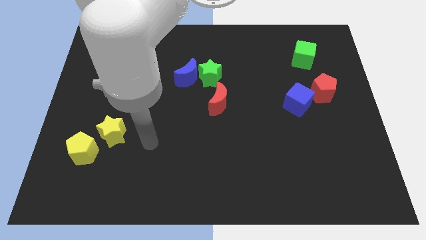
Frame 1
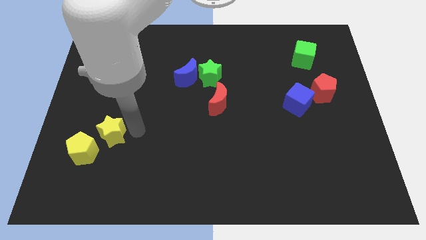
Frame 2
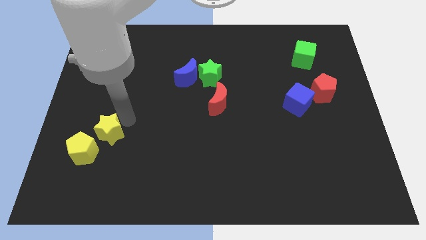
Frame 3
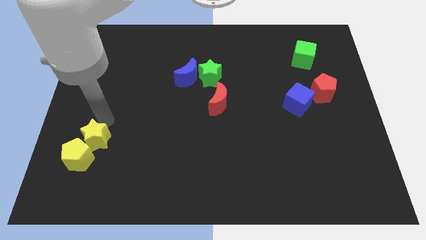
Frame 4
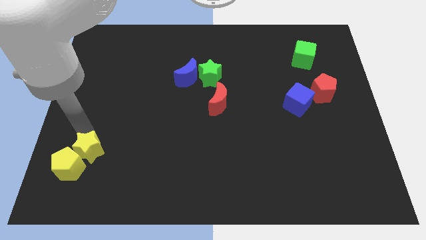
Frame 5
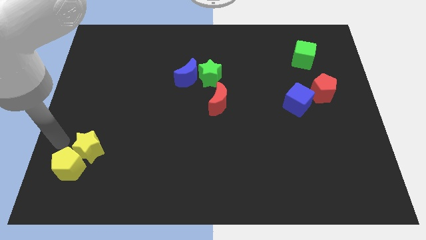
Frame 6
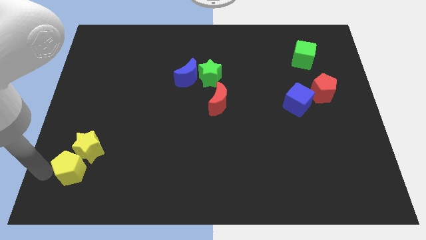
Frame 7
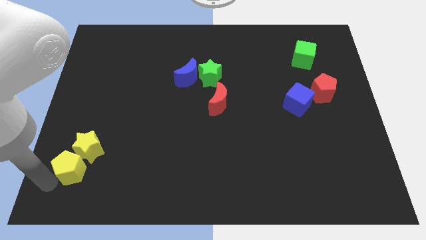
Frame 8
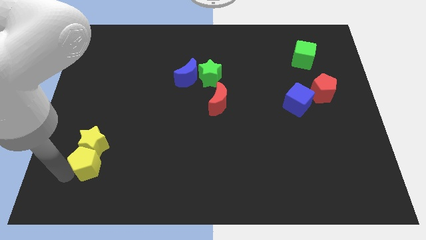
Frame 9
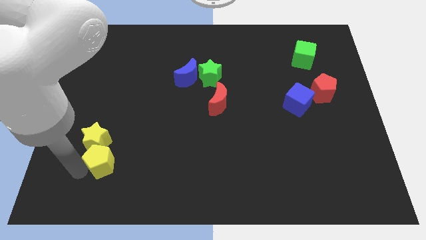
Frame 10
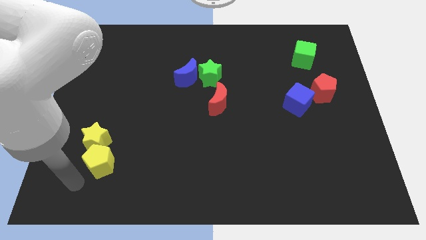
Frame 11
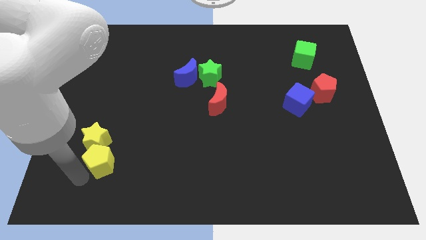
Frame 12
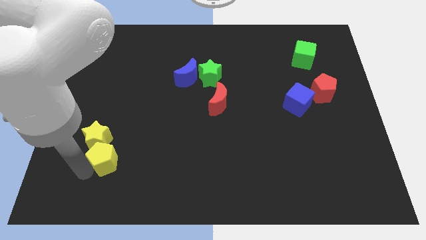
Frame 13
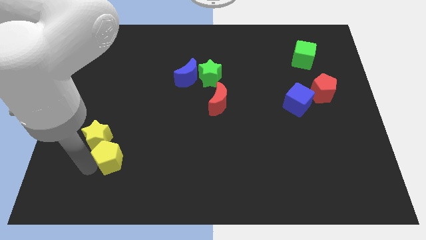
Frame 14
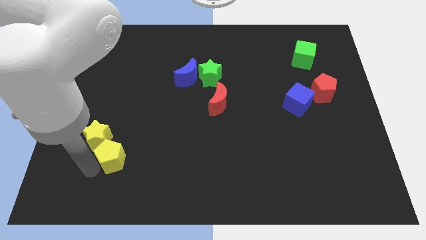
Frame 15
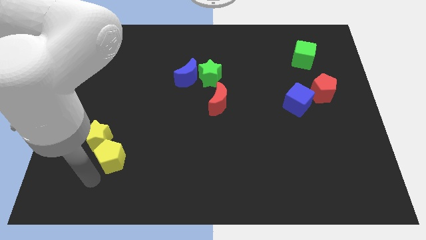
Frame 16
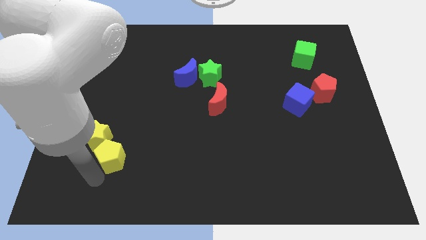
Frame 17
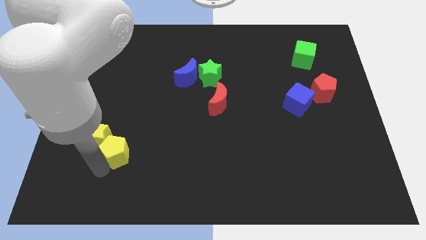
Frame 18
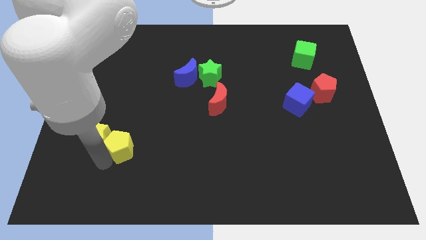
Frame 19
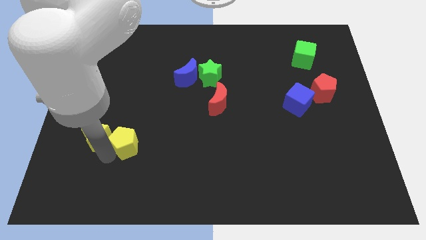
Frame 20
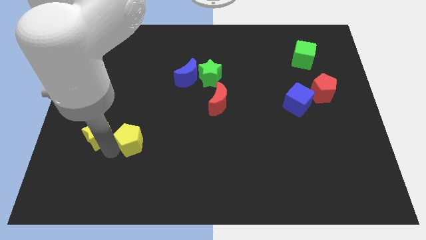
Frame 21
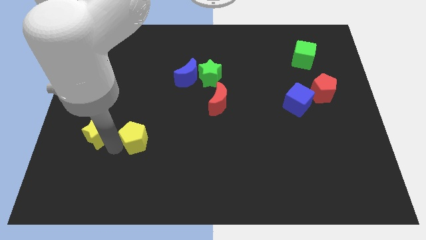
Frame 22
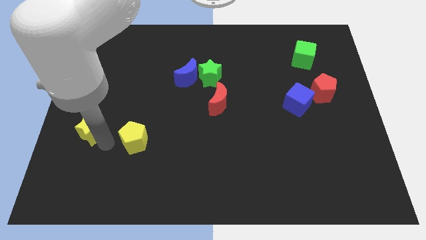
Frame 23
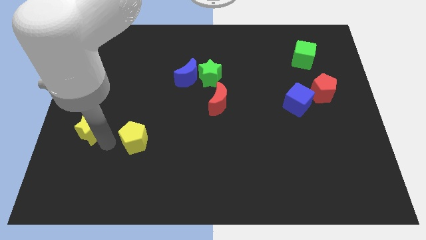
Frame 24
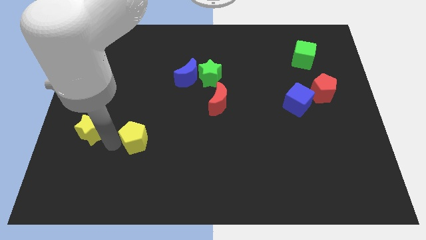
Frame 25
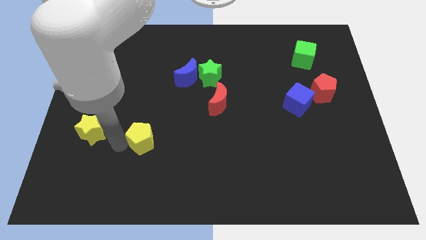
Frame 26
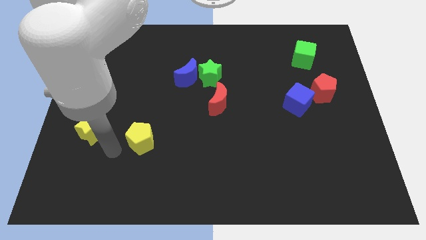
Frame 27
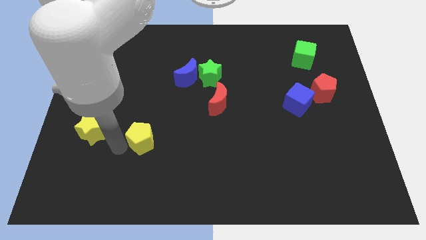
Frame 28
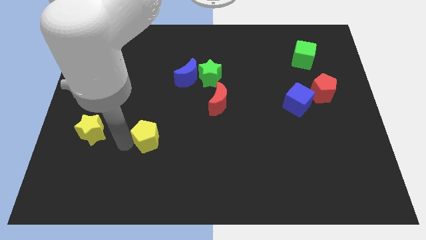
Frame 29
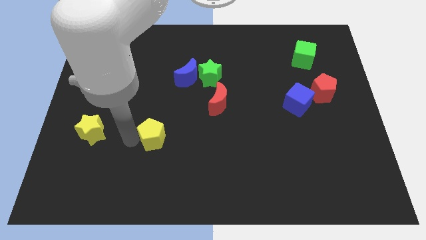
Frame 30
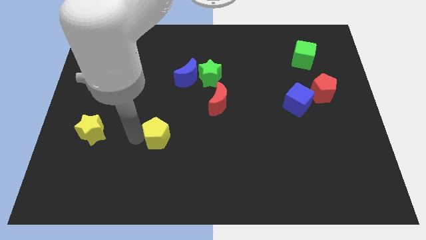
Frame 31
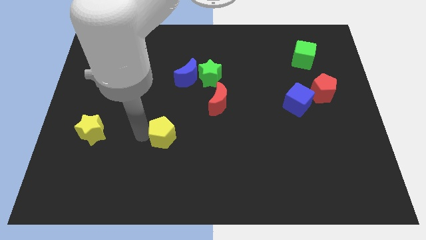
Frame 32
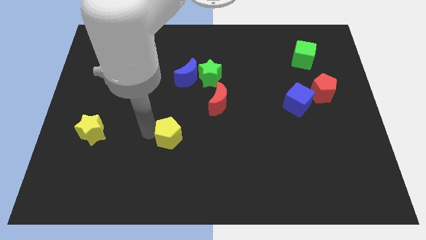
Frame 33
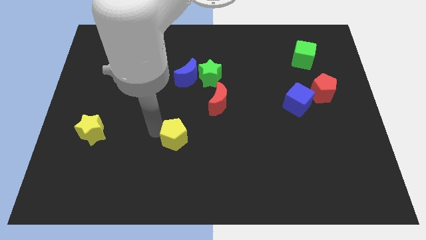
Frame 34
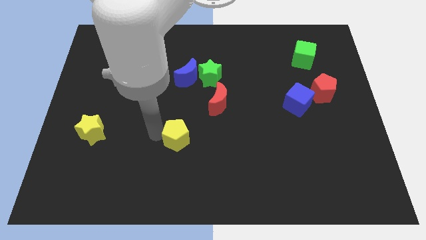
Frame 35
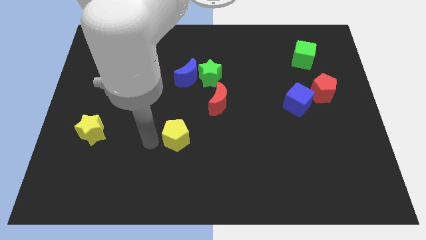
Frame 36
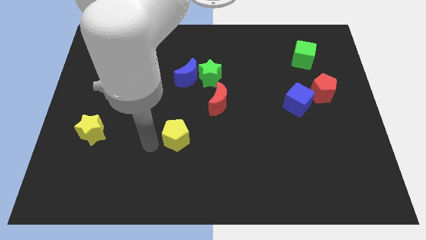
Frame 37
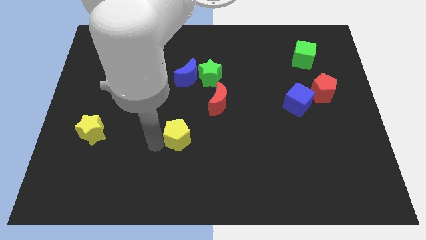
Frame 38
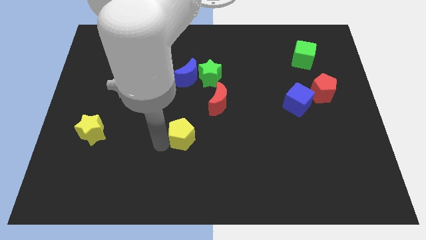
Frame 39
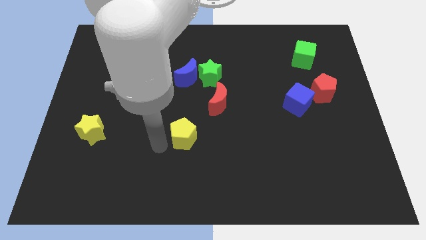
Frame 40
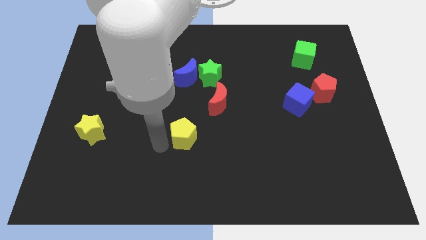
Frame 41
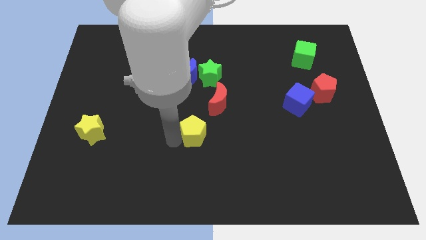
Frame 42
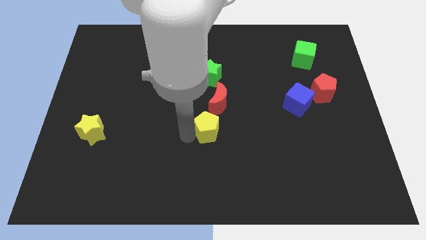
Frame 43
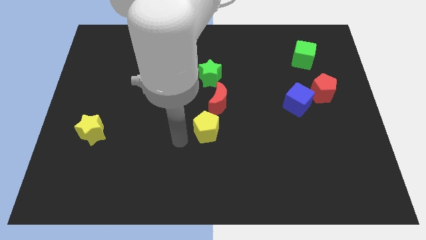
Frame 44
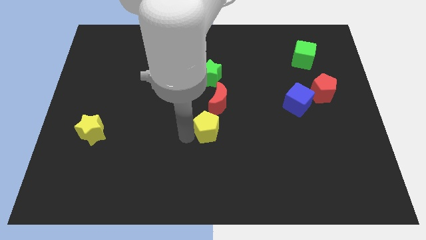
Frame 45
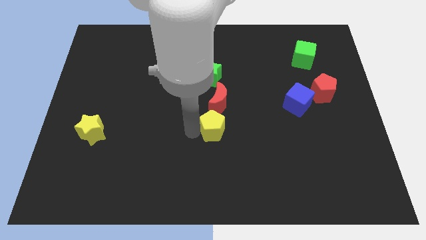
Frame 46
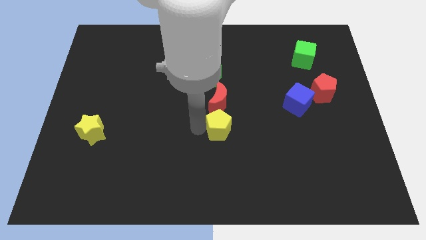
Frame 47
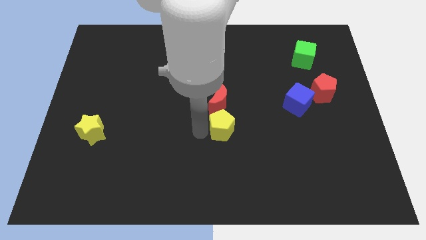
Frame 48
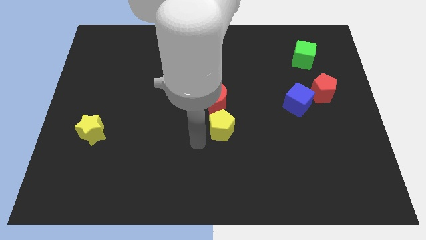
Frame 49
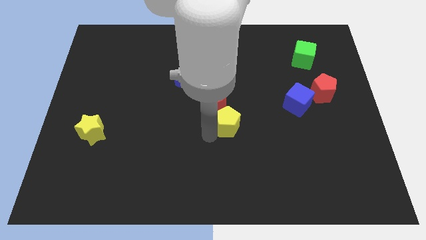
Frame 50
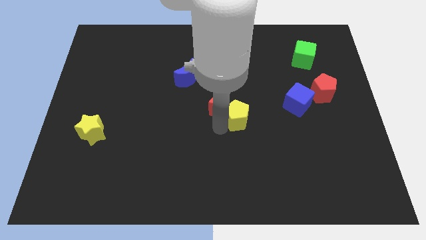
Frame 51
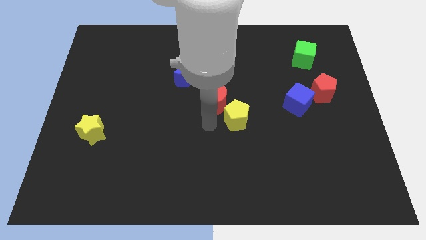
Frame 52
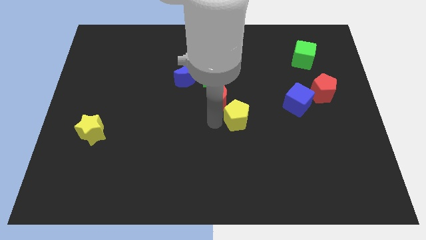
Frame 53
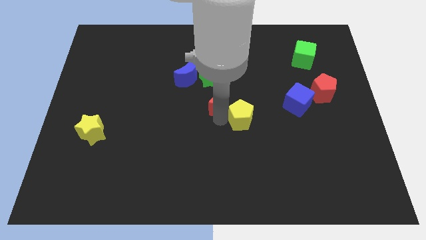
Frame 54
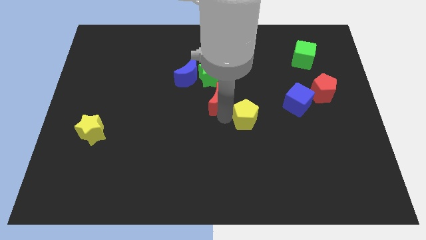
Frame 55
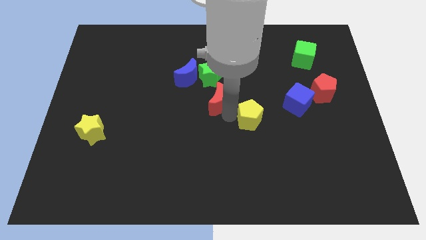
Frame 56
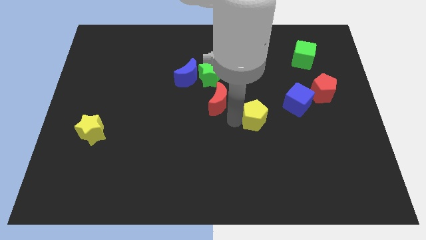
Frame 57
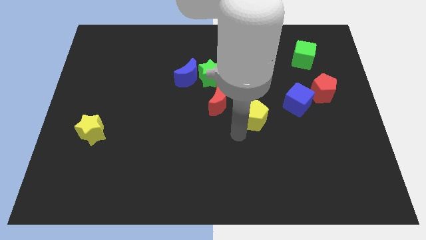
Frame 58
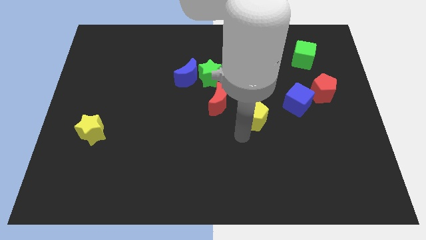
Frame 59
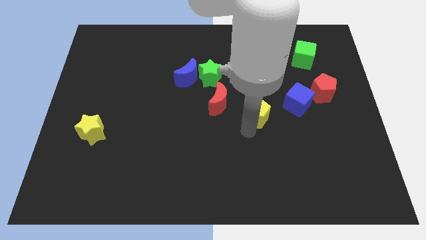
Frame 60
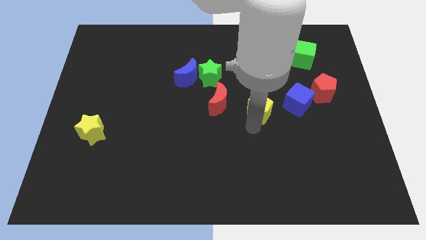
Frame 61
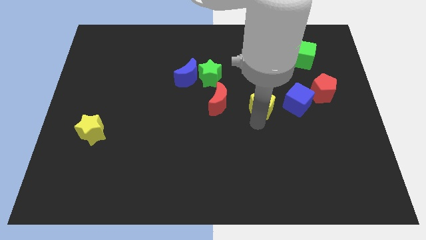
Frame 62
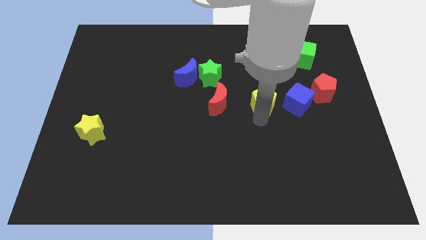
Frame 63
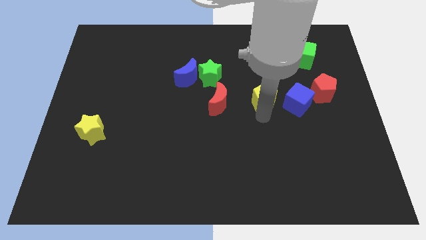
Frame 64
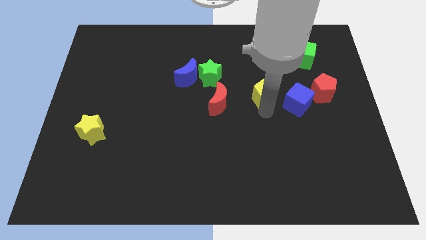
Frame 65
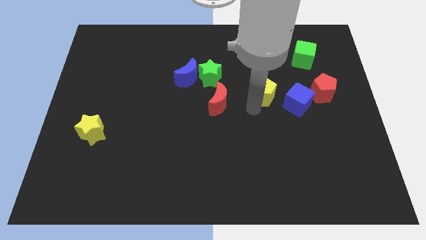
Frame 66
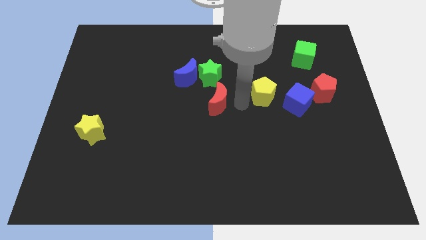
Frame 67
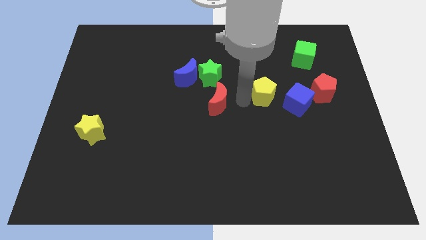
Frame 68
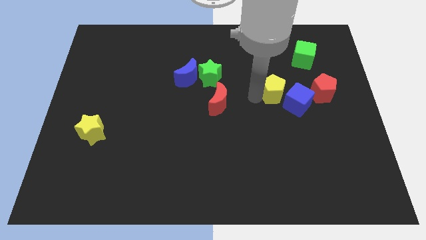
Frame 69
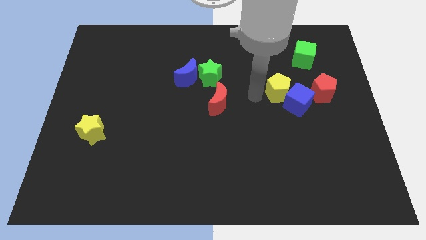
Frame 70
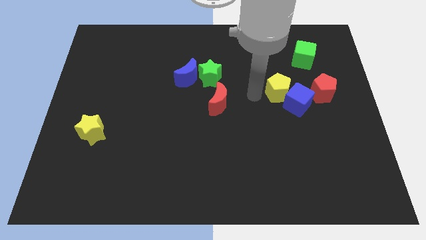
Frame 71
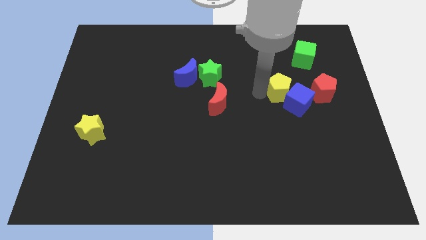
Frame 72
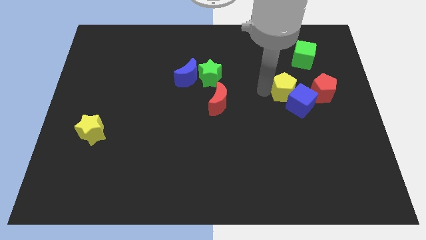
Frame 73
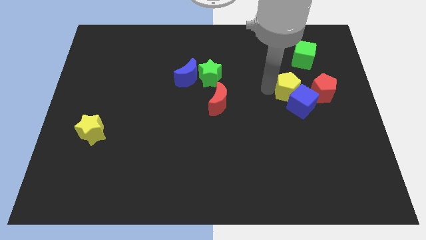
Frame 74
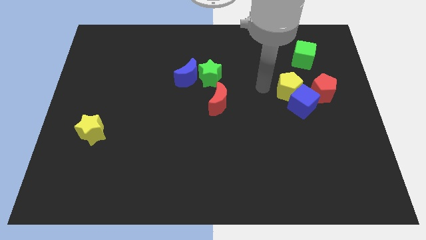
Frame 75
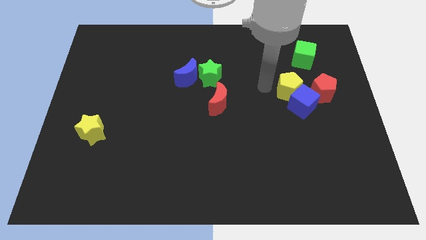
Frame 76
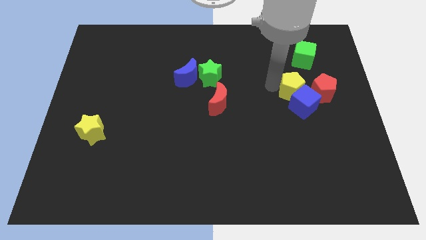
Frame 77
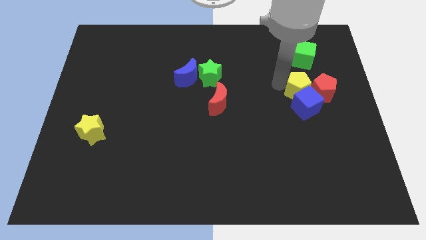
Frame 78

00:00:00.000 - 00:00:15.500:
slide the yellow pentagon towards the red pentagon

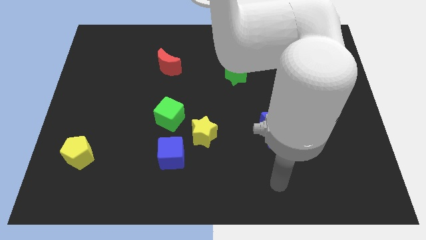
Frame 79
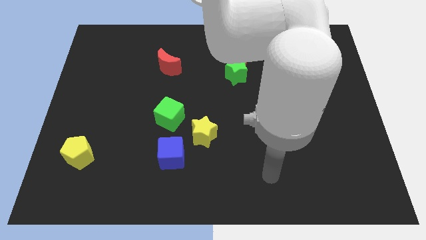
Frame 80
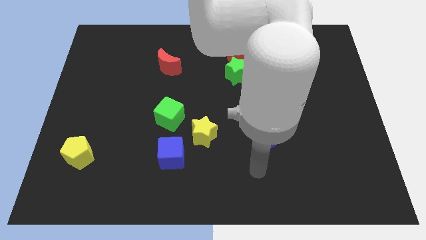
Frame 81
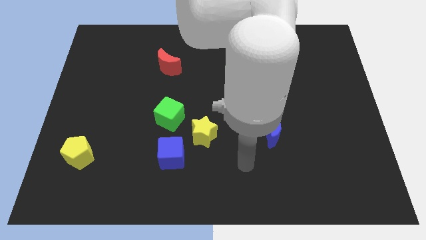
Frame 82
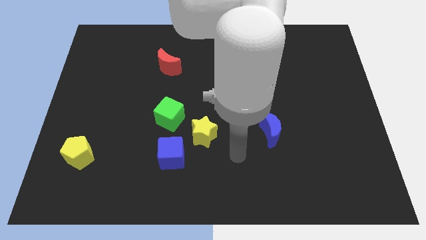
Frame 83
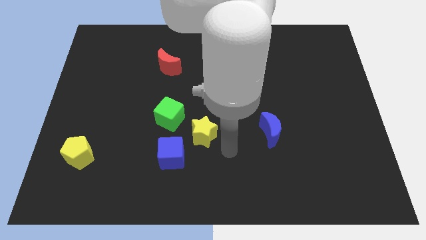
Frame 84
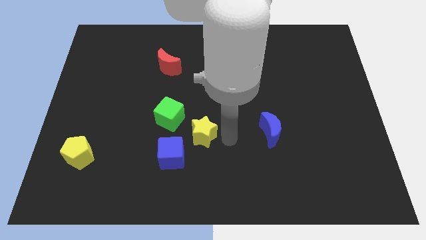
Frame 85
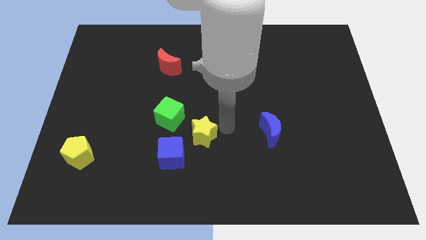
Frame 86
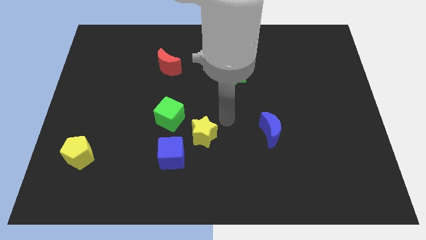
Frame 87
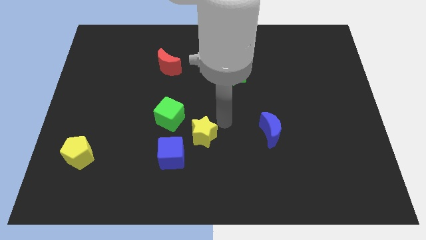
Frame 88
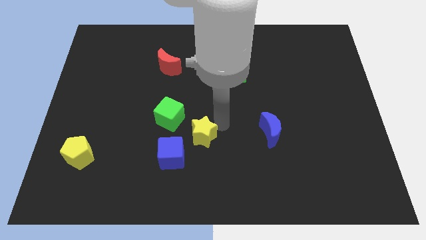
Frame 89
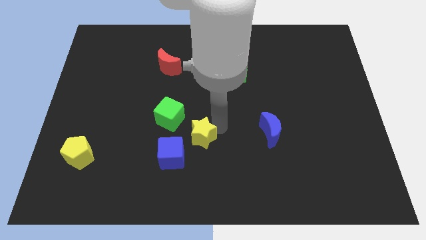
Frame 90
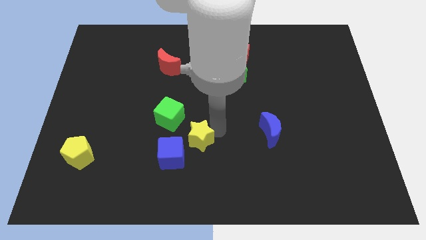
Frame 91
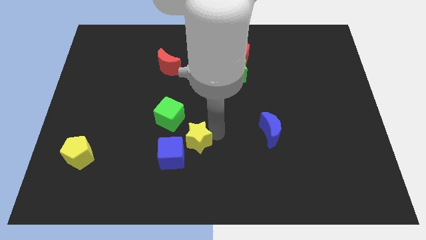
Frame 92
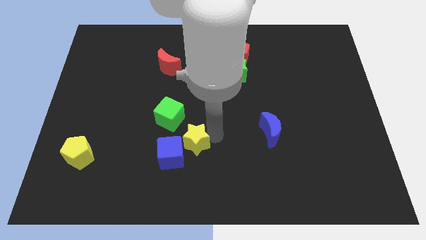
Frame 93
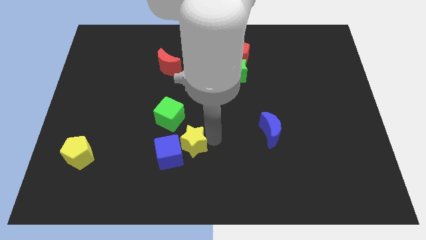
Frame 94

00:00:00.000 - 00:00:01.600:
put the yellow star to the blue cube
